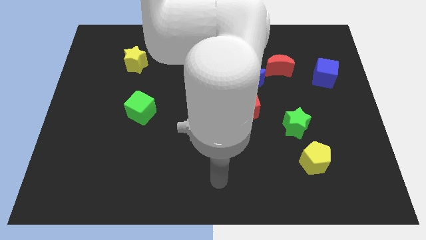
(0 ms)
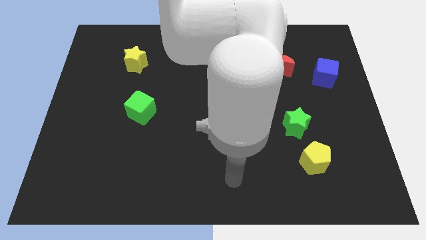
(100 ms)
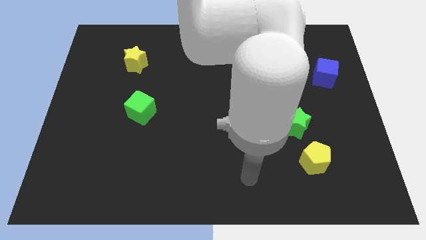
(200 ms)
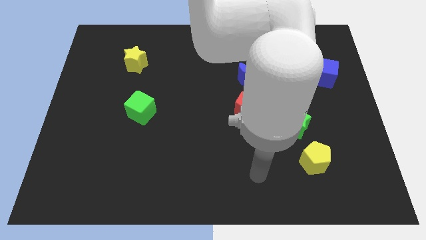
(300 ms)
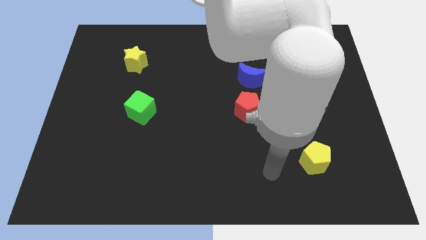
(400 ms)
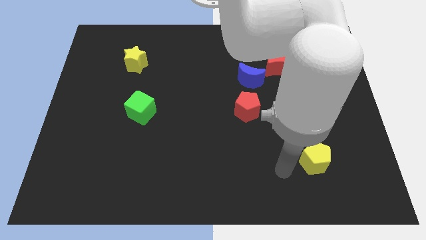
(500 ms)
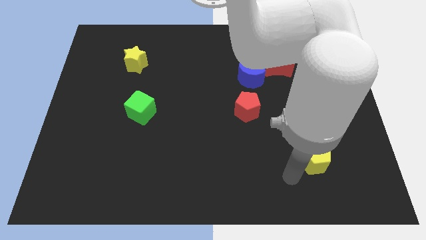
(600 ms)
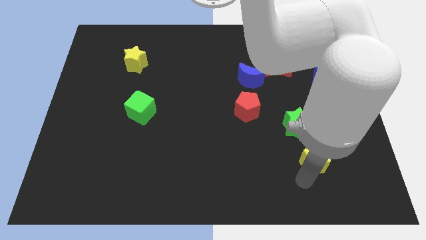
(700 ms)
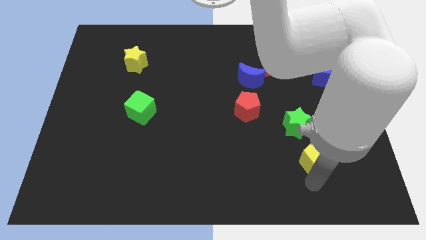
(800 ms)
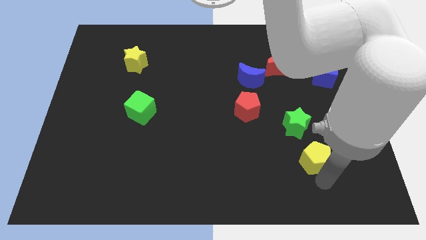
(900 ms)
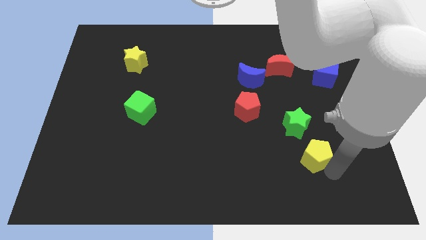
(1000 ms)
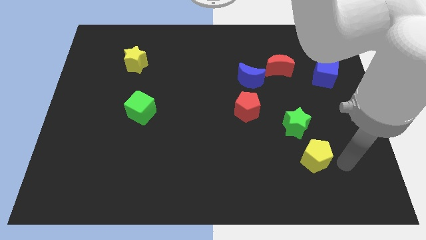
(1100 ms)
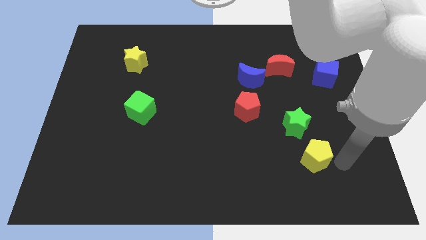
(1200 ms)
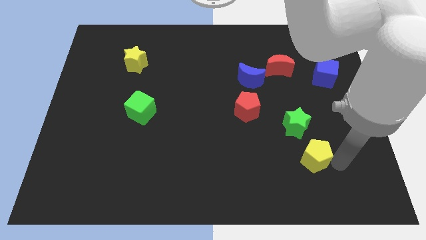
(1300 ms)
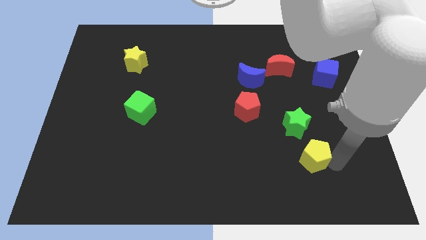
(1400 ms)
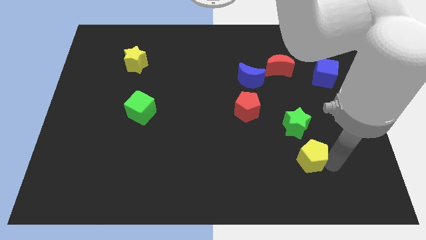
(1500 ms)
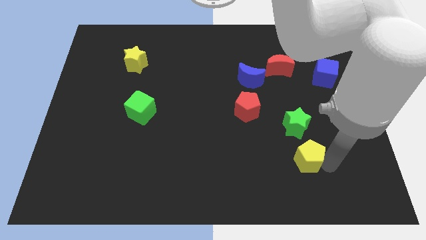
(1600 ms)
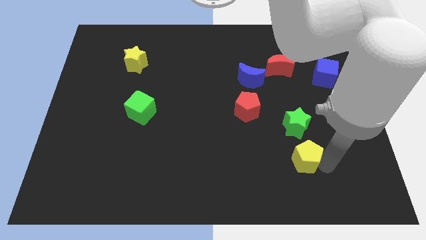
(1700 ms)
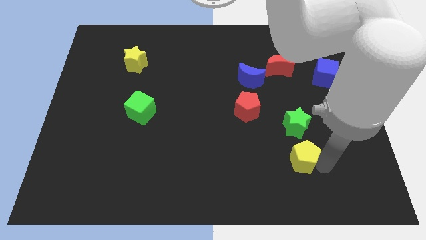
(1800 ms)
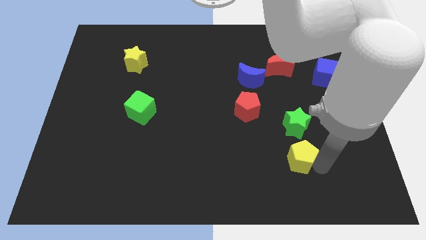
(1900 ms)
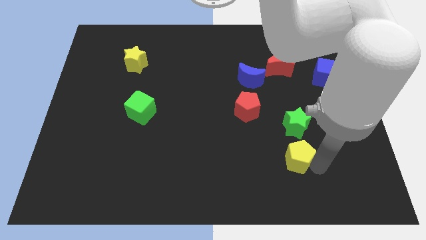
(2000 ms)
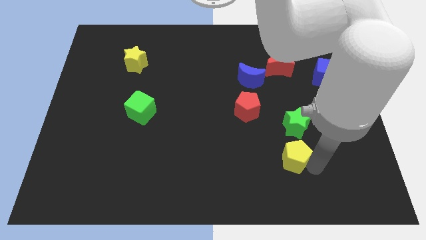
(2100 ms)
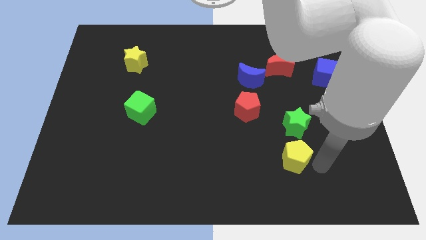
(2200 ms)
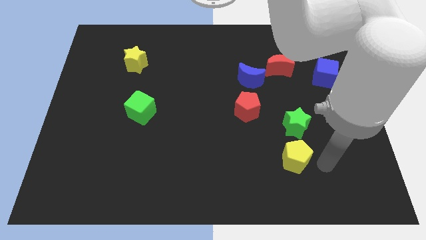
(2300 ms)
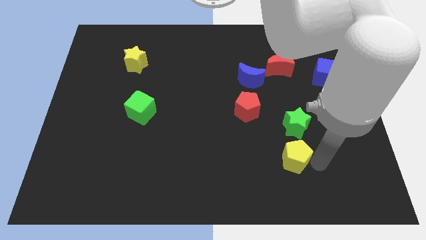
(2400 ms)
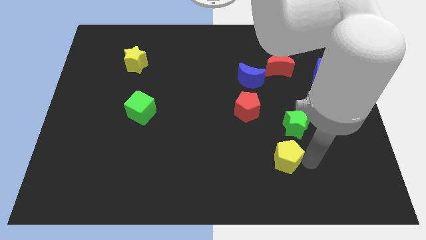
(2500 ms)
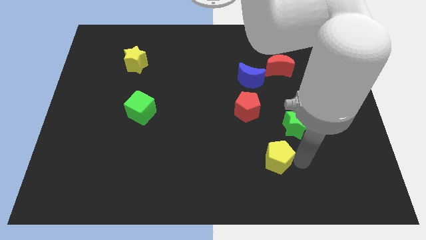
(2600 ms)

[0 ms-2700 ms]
move the yellow pentagon a little bit to the left

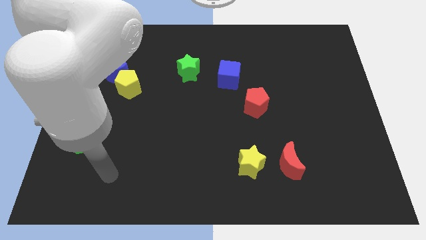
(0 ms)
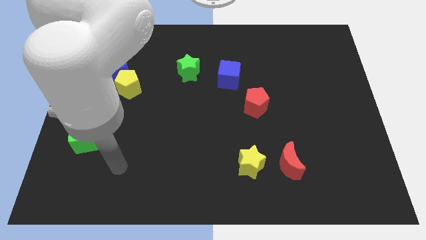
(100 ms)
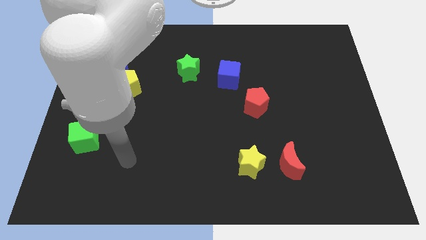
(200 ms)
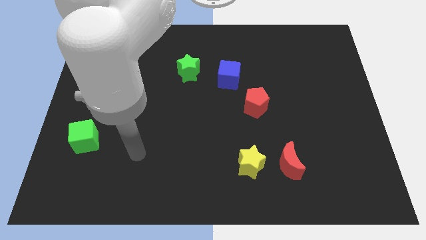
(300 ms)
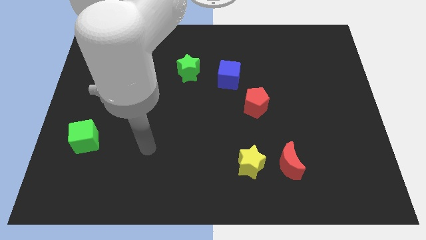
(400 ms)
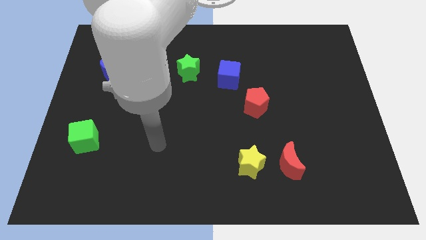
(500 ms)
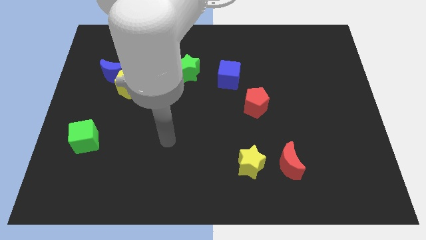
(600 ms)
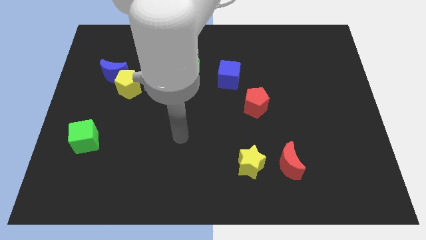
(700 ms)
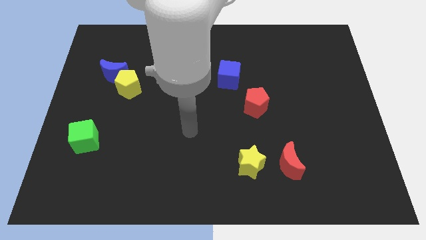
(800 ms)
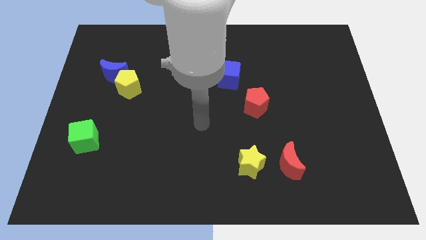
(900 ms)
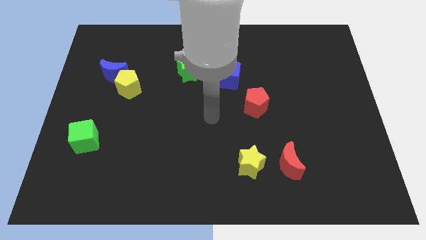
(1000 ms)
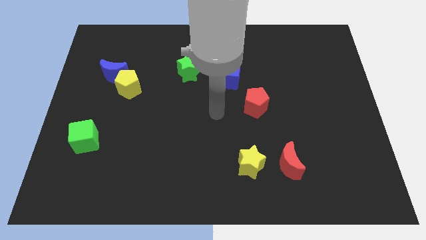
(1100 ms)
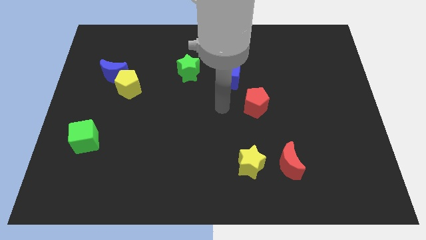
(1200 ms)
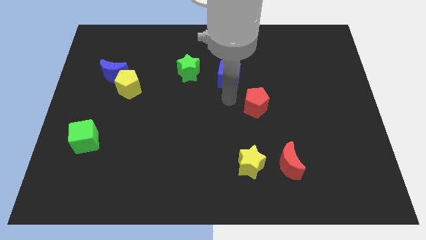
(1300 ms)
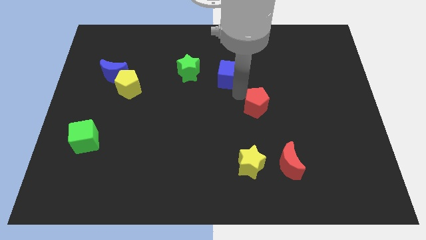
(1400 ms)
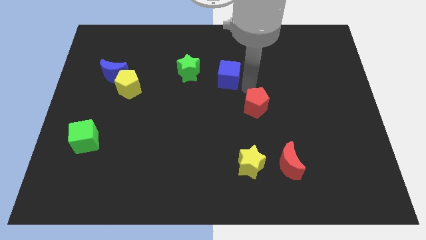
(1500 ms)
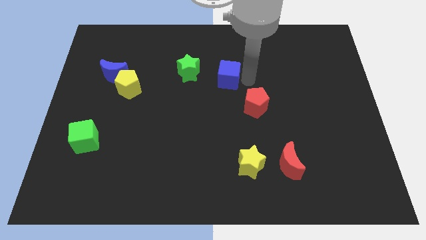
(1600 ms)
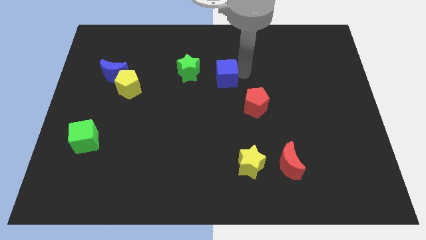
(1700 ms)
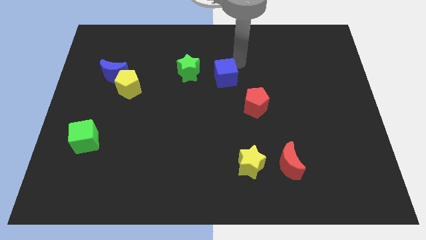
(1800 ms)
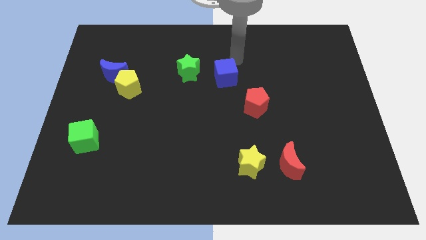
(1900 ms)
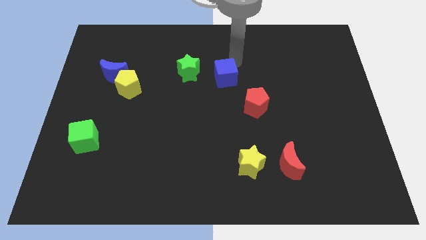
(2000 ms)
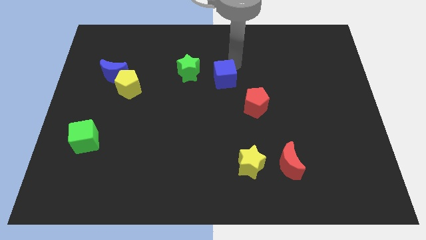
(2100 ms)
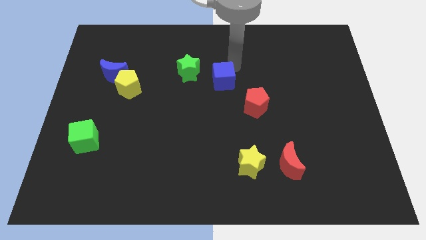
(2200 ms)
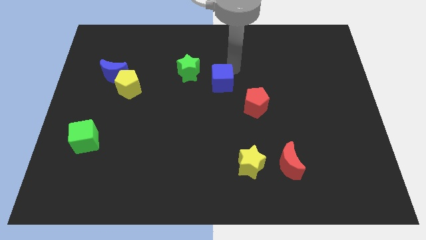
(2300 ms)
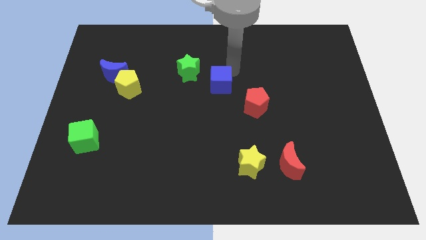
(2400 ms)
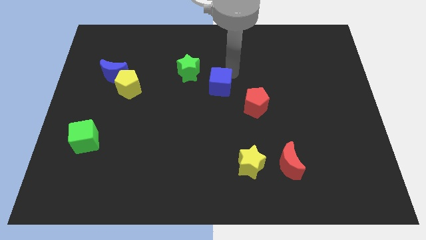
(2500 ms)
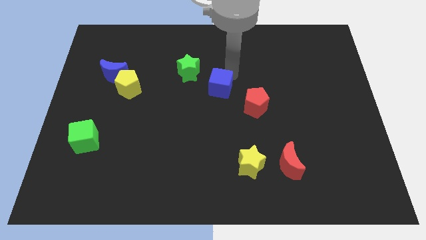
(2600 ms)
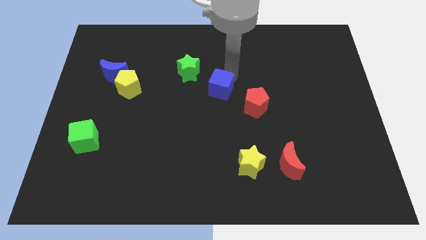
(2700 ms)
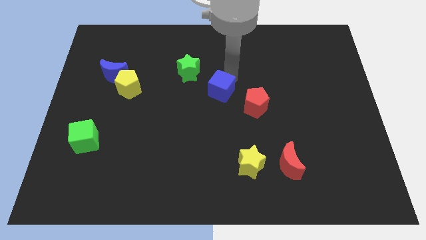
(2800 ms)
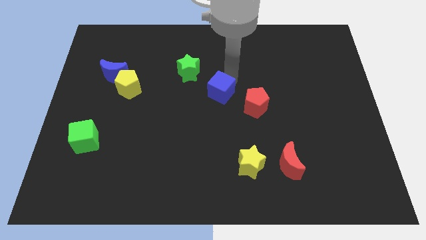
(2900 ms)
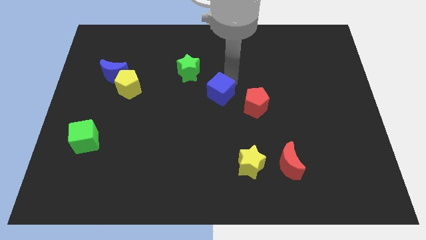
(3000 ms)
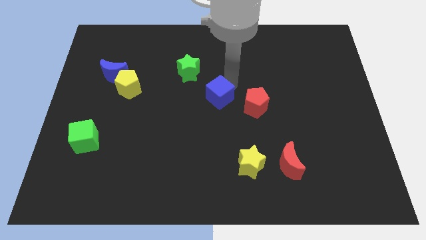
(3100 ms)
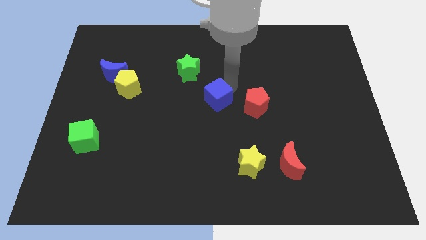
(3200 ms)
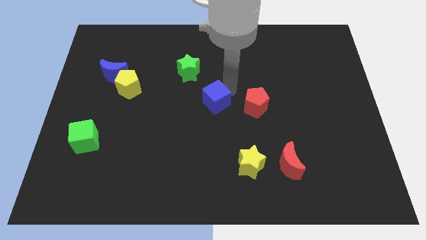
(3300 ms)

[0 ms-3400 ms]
slide the blue cube down and left diagonally a little

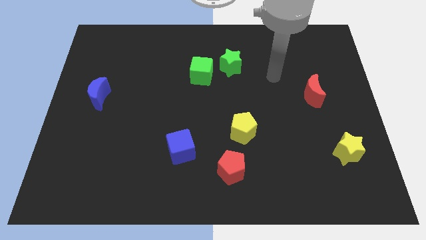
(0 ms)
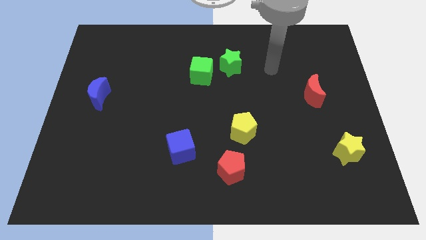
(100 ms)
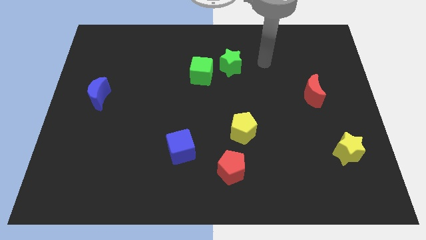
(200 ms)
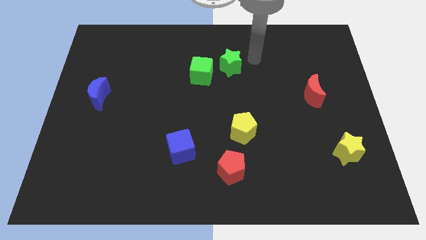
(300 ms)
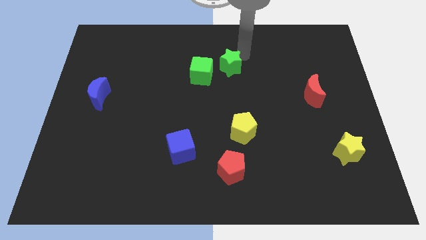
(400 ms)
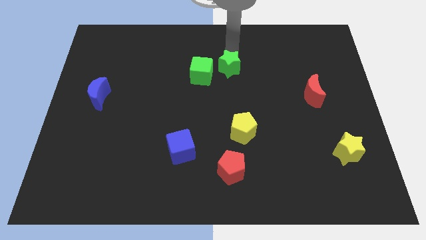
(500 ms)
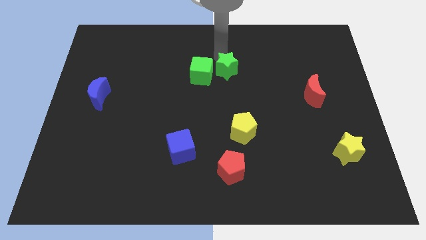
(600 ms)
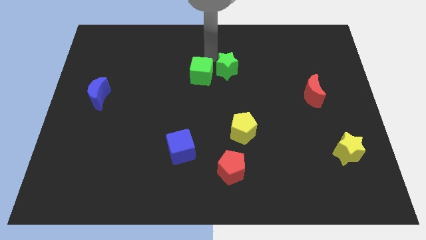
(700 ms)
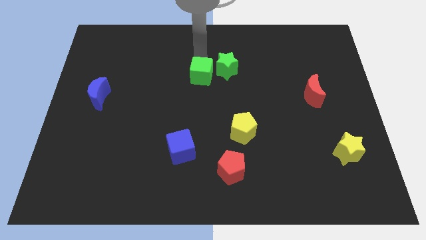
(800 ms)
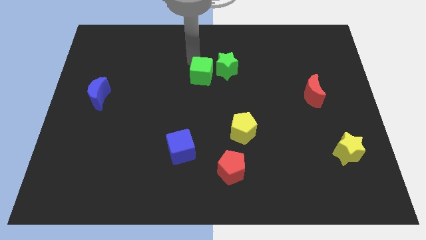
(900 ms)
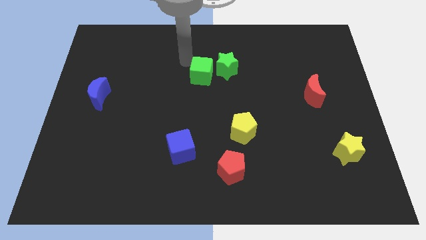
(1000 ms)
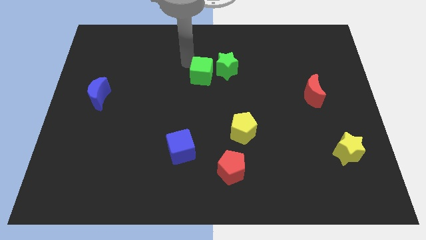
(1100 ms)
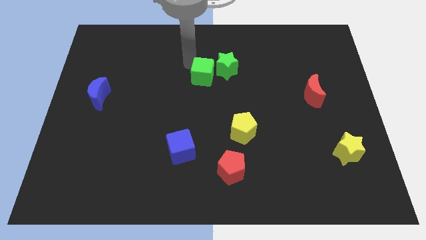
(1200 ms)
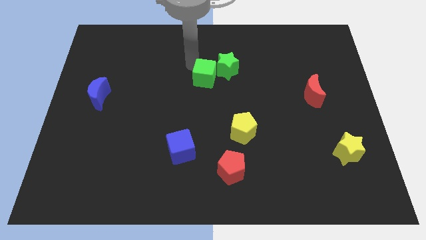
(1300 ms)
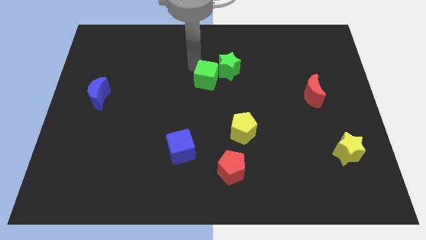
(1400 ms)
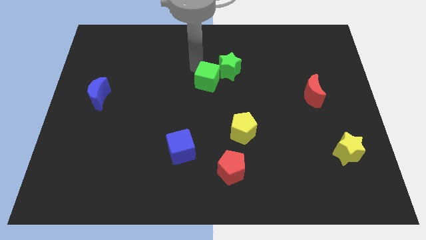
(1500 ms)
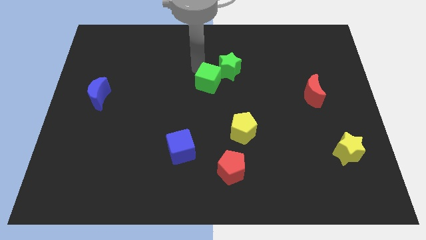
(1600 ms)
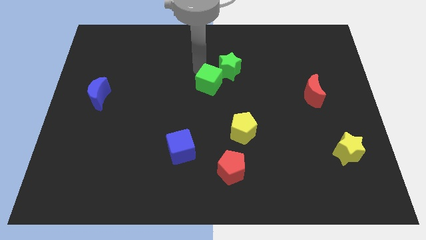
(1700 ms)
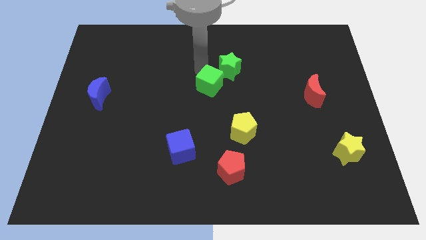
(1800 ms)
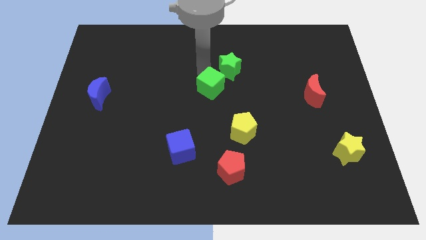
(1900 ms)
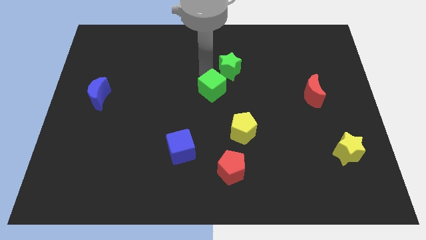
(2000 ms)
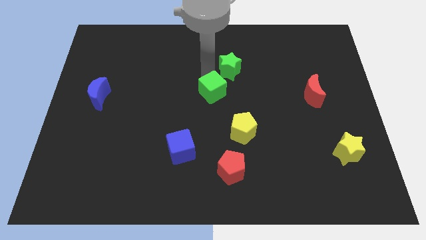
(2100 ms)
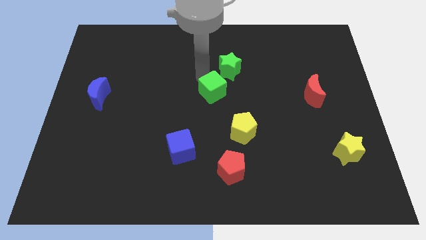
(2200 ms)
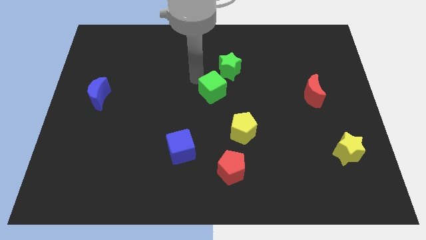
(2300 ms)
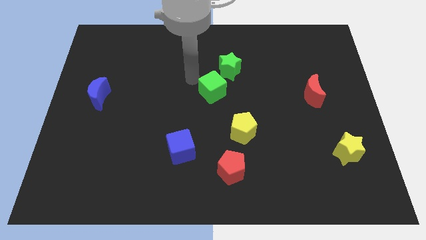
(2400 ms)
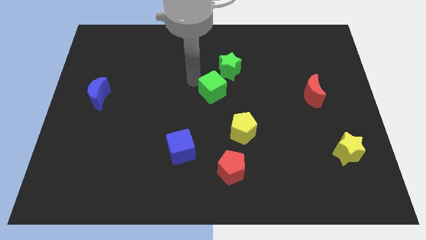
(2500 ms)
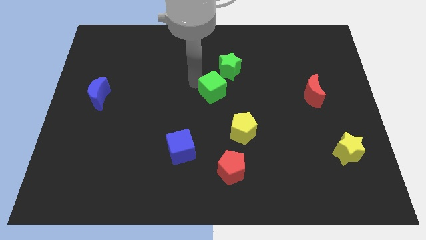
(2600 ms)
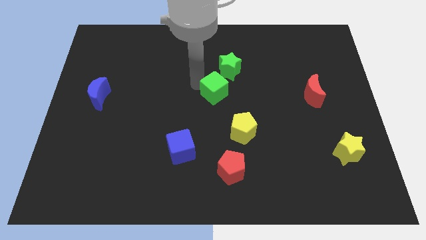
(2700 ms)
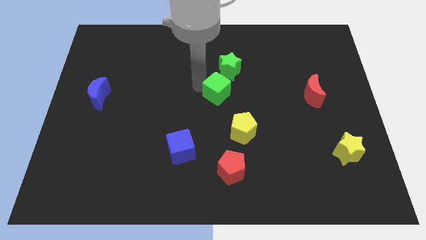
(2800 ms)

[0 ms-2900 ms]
move the green cube down and right diagonally a bit
